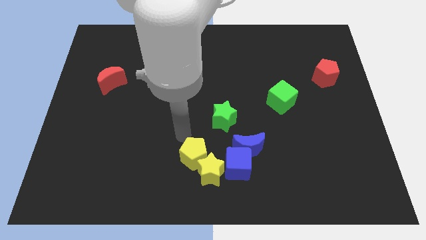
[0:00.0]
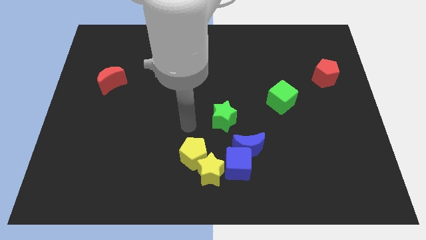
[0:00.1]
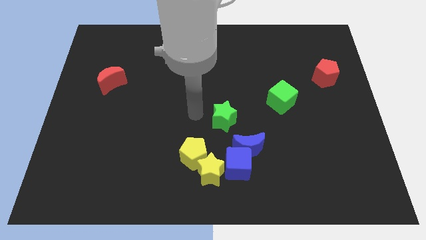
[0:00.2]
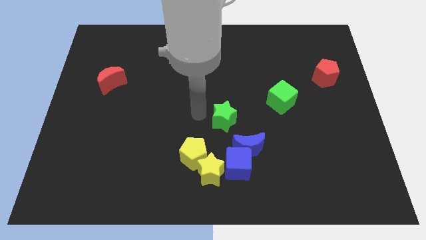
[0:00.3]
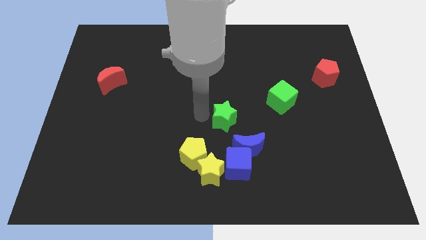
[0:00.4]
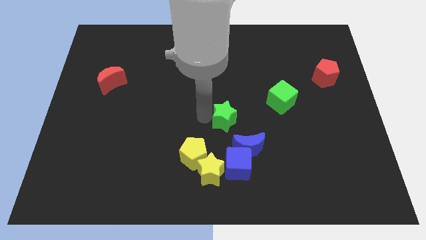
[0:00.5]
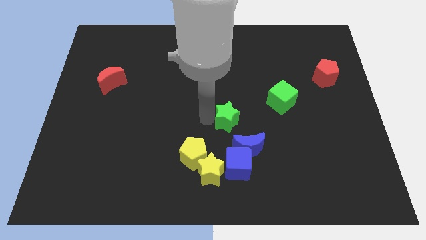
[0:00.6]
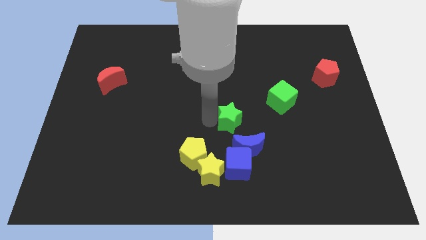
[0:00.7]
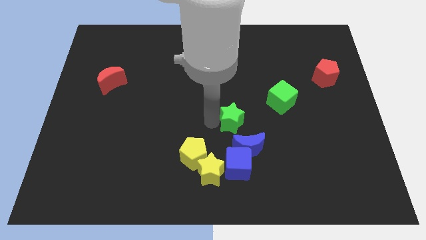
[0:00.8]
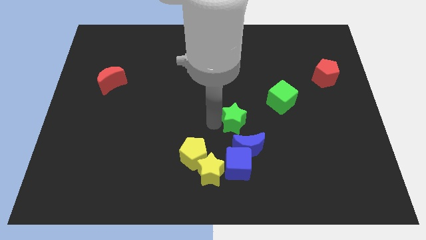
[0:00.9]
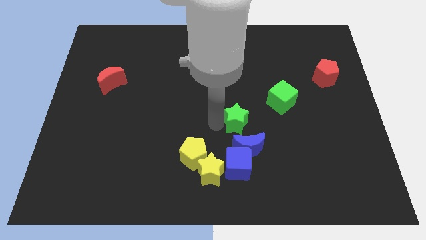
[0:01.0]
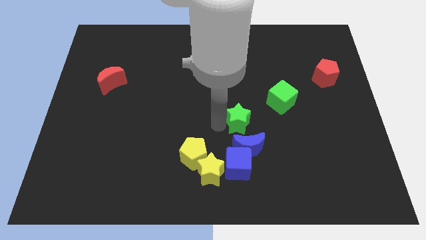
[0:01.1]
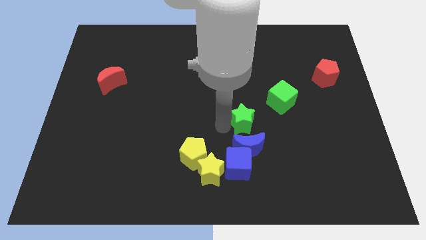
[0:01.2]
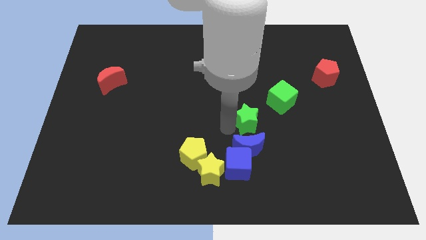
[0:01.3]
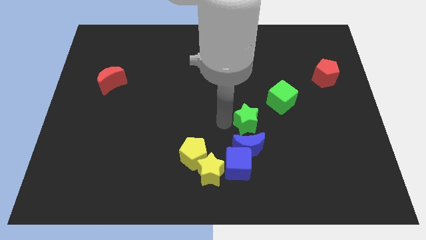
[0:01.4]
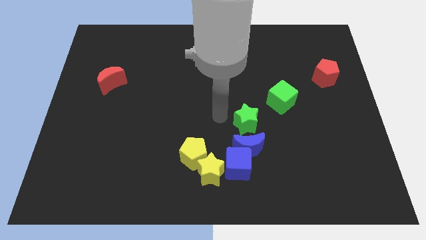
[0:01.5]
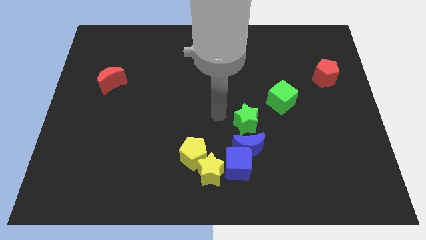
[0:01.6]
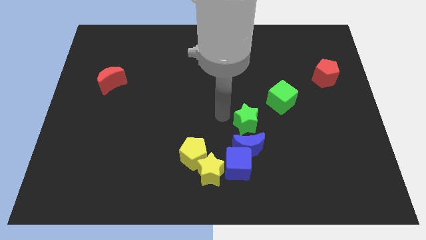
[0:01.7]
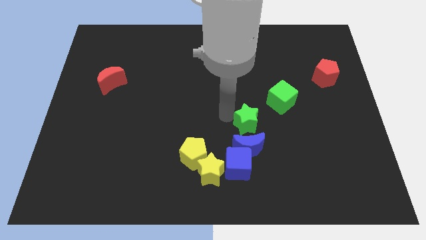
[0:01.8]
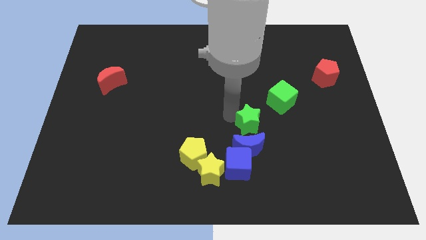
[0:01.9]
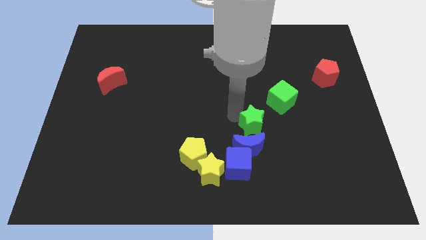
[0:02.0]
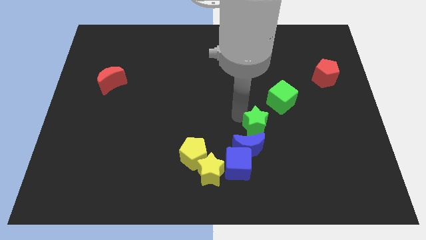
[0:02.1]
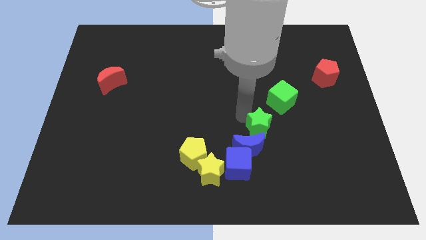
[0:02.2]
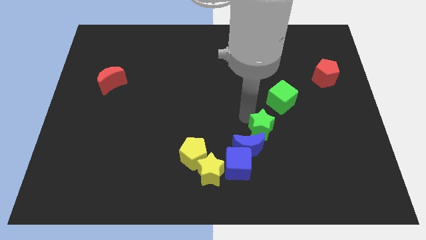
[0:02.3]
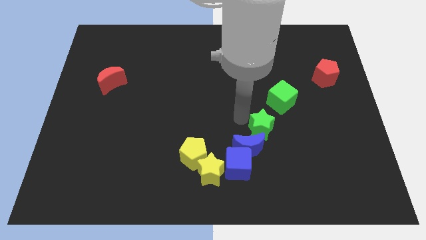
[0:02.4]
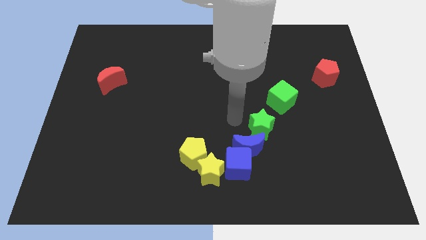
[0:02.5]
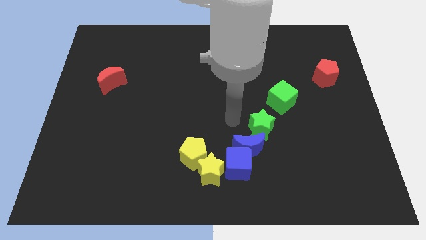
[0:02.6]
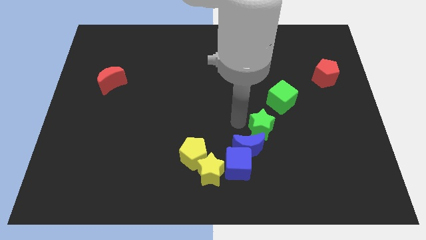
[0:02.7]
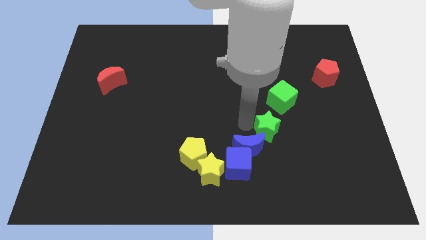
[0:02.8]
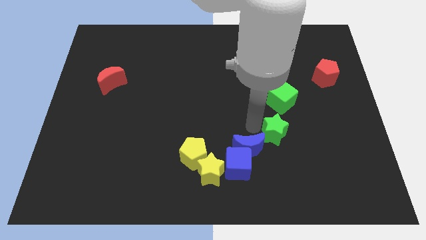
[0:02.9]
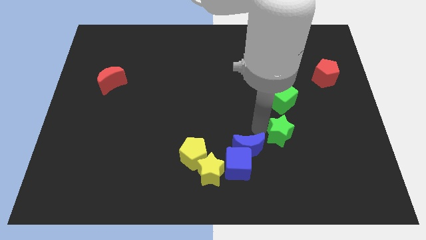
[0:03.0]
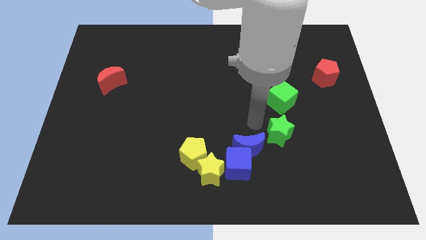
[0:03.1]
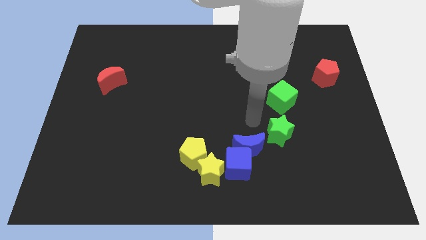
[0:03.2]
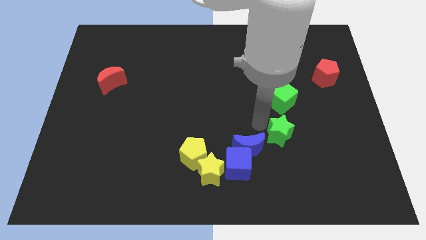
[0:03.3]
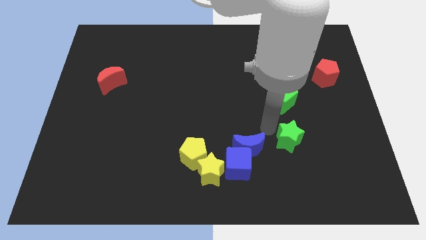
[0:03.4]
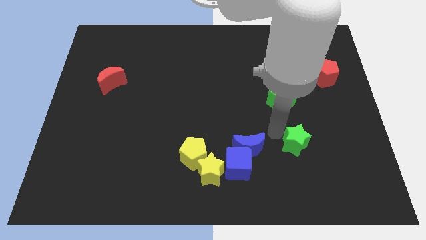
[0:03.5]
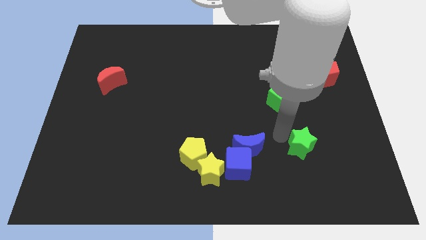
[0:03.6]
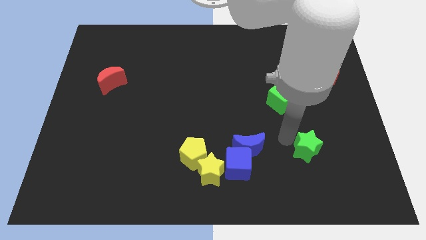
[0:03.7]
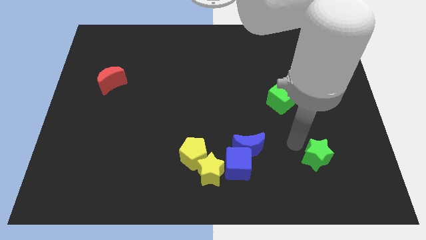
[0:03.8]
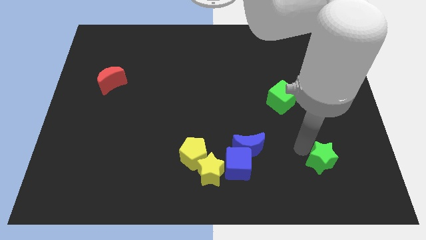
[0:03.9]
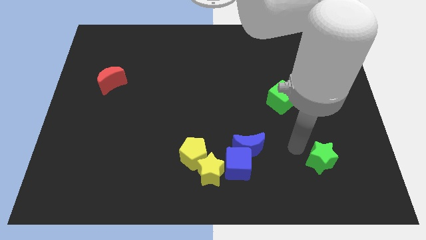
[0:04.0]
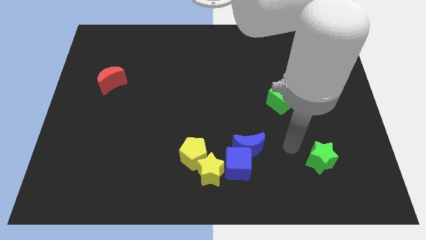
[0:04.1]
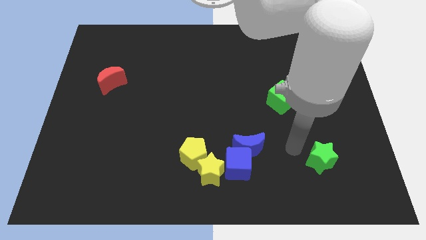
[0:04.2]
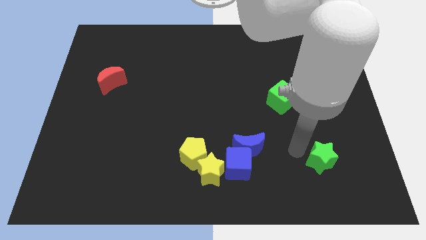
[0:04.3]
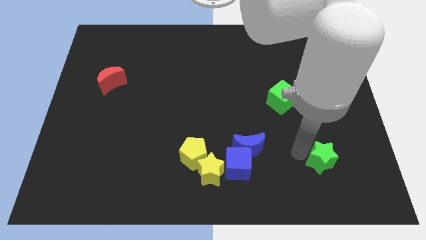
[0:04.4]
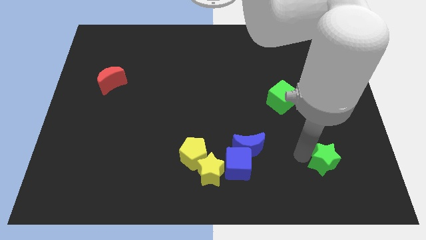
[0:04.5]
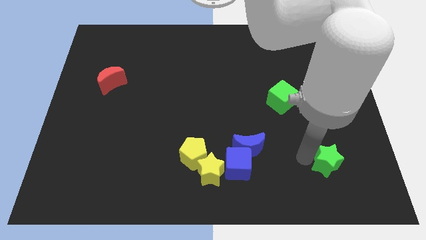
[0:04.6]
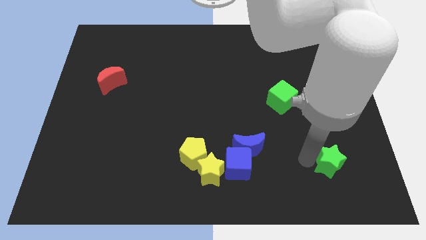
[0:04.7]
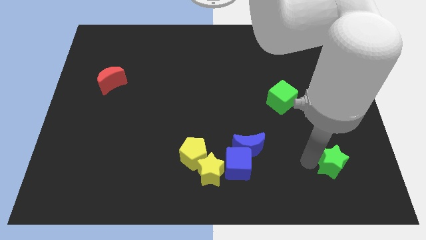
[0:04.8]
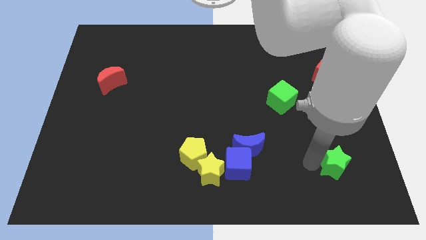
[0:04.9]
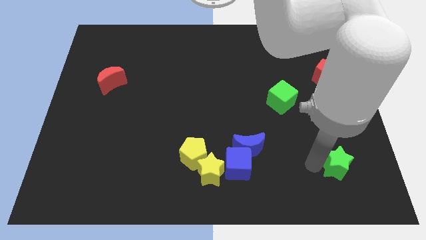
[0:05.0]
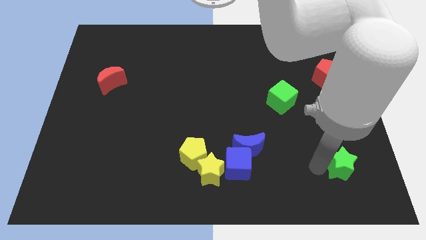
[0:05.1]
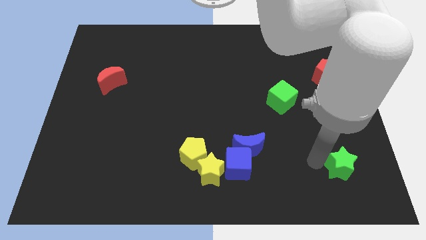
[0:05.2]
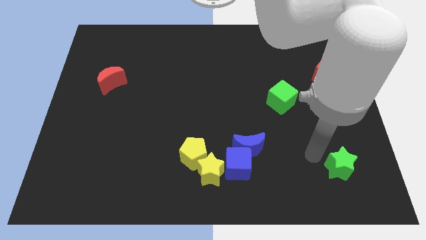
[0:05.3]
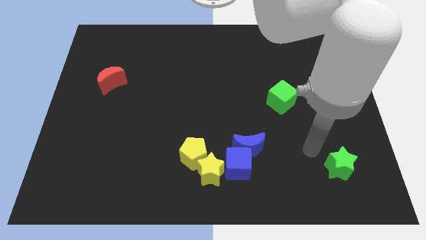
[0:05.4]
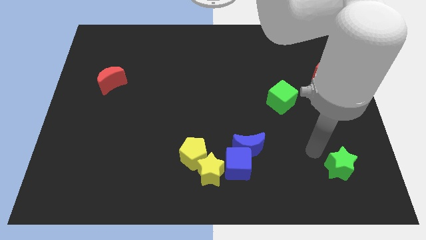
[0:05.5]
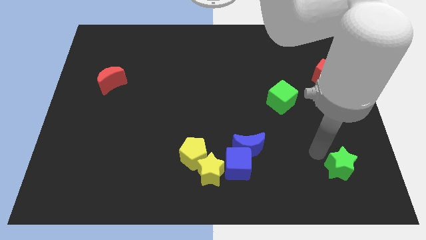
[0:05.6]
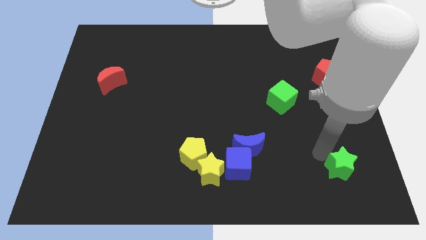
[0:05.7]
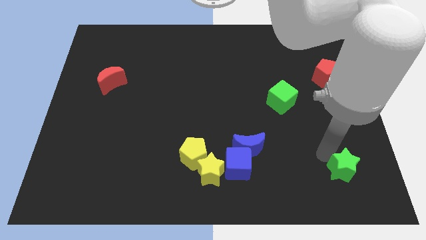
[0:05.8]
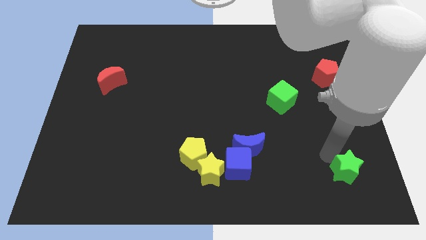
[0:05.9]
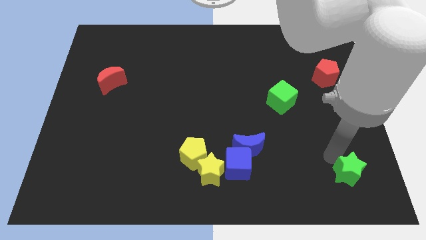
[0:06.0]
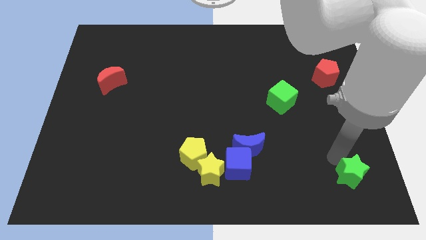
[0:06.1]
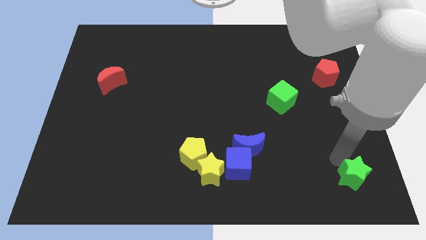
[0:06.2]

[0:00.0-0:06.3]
put the green star to the bottom right
